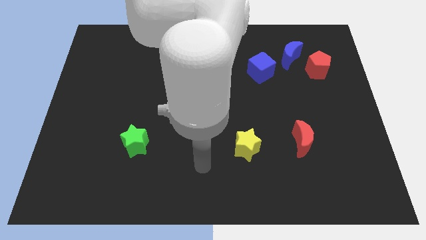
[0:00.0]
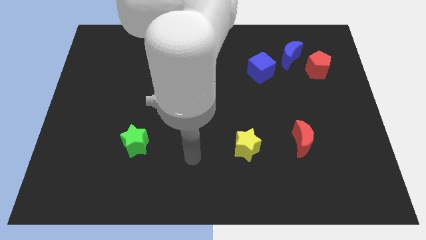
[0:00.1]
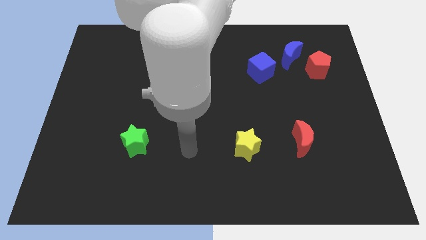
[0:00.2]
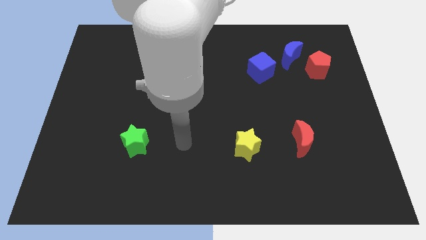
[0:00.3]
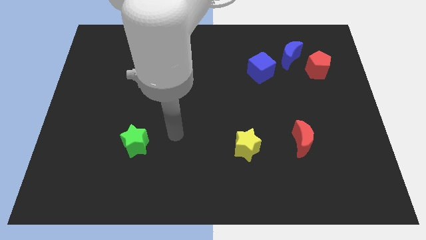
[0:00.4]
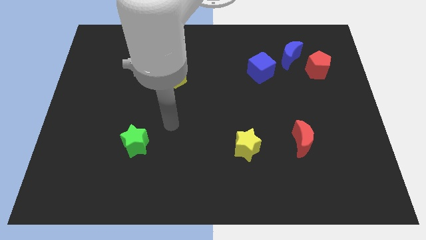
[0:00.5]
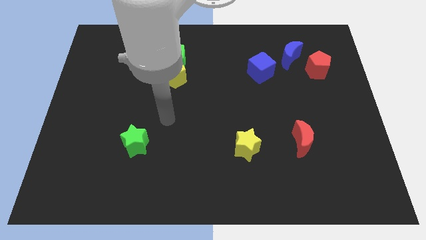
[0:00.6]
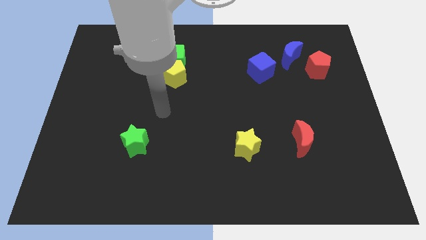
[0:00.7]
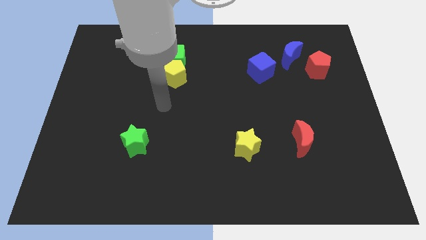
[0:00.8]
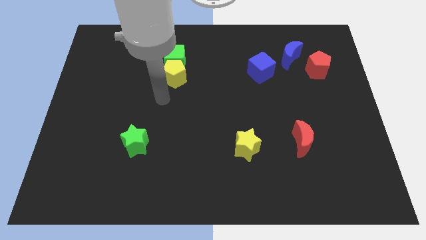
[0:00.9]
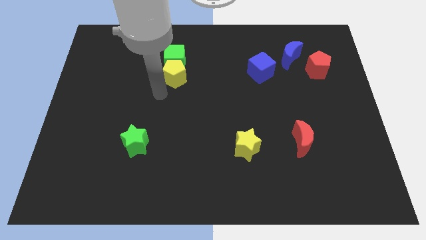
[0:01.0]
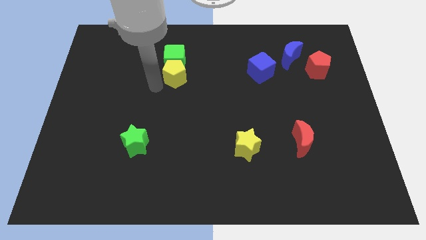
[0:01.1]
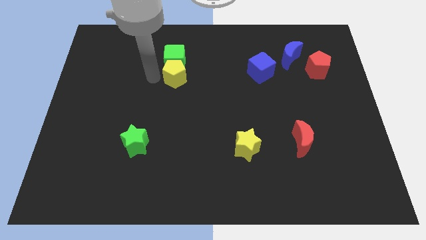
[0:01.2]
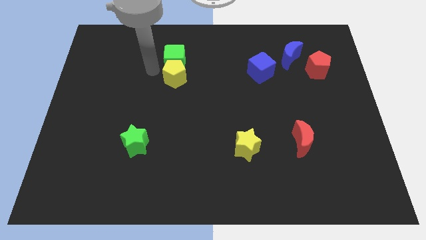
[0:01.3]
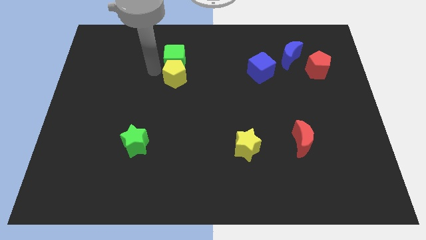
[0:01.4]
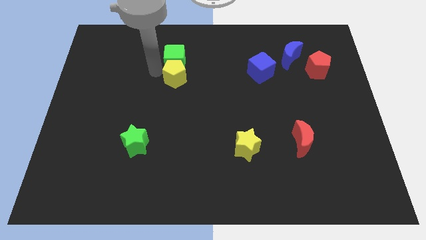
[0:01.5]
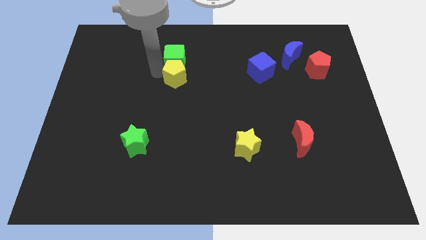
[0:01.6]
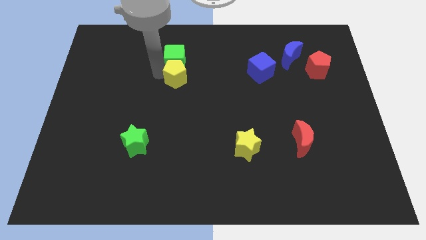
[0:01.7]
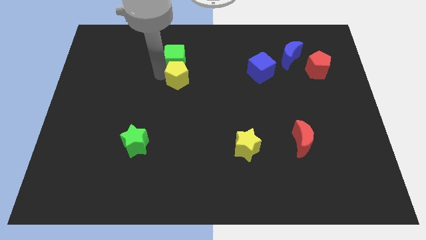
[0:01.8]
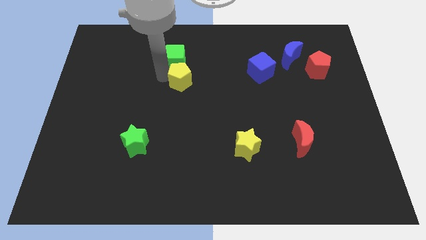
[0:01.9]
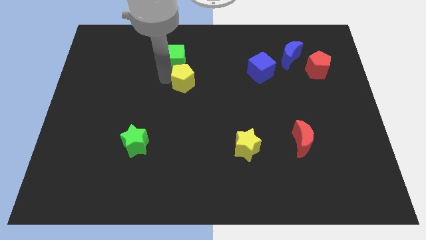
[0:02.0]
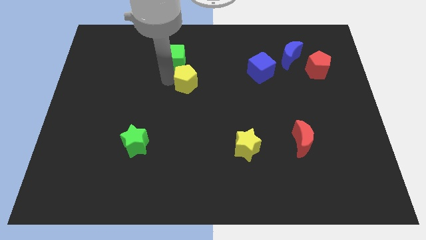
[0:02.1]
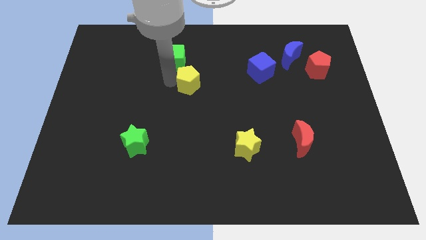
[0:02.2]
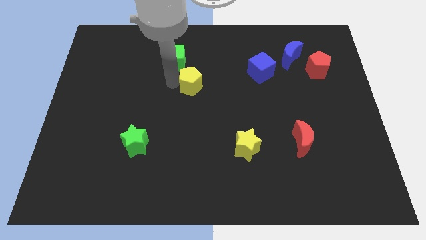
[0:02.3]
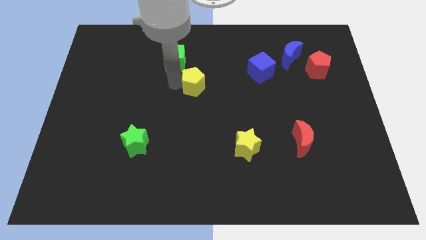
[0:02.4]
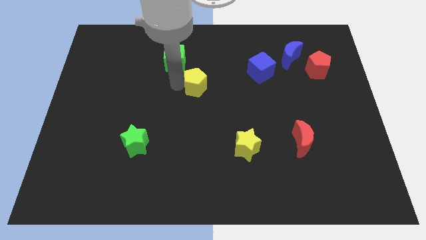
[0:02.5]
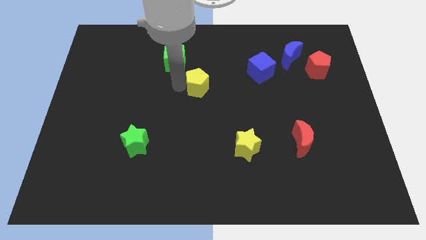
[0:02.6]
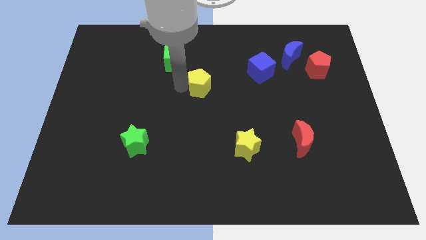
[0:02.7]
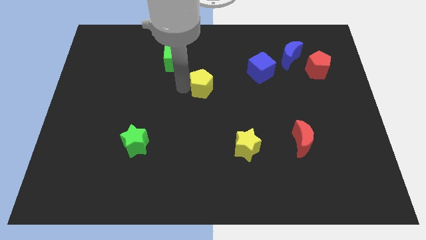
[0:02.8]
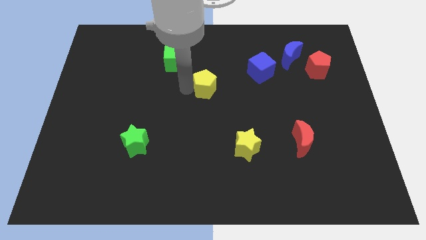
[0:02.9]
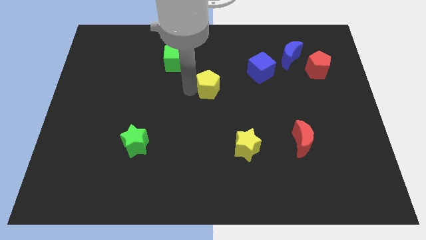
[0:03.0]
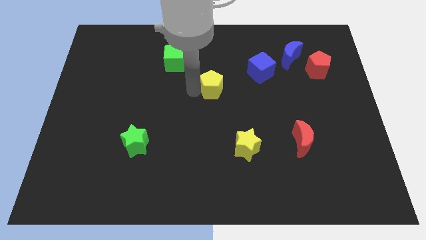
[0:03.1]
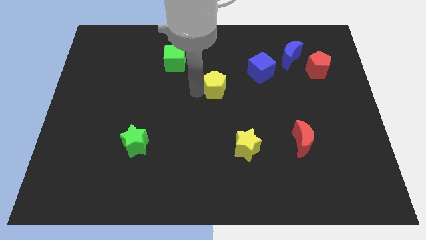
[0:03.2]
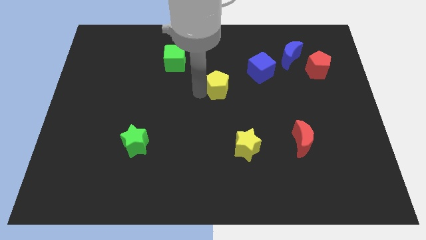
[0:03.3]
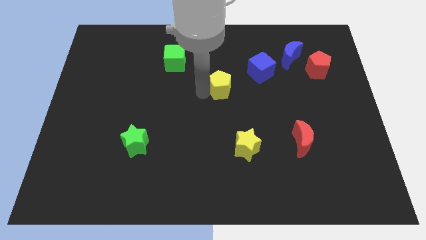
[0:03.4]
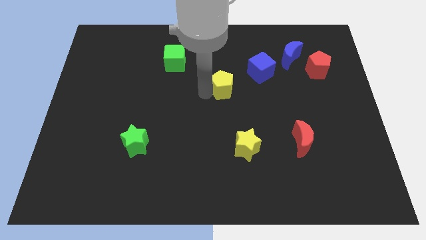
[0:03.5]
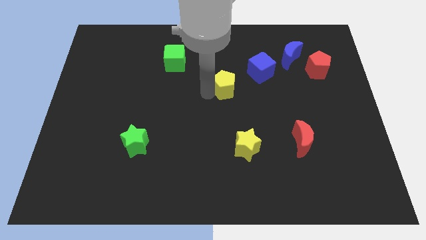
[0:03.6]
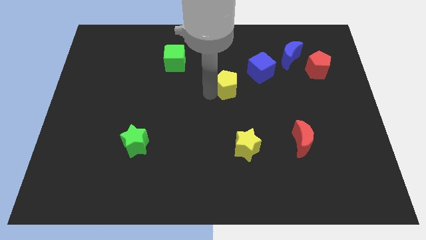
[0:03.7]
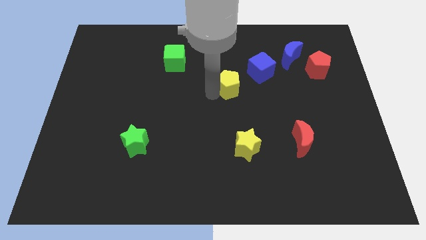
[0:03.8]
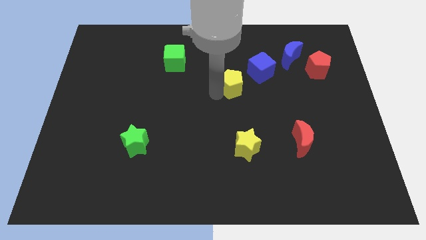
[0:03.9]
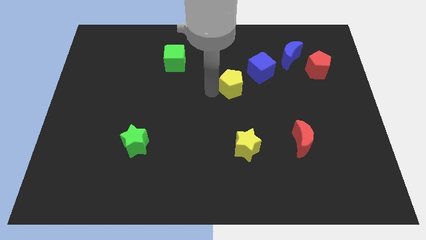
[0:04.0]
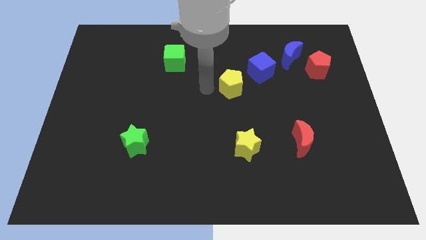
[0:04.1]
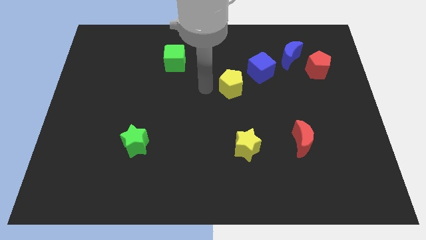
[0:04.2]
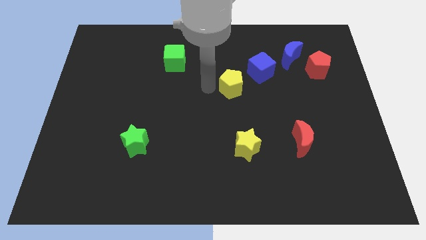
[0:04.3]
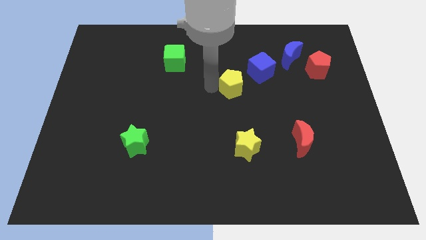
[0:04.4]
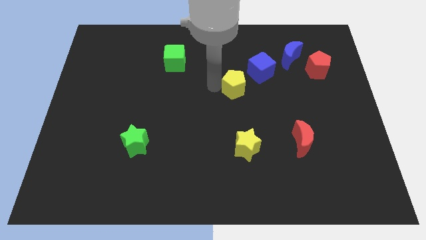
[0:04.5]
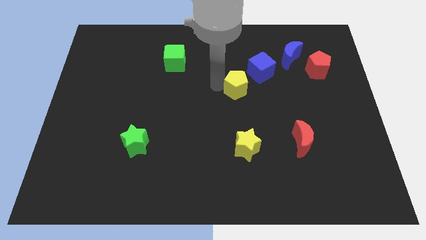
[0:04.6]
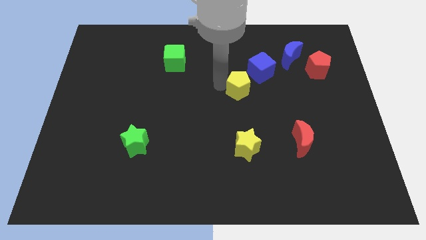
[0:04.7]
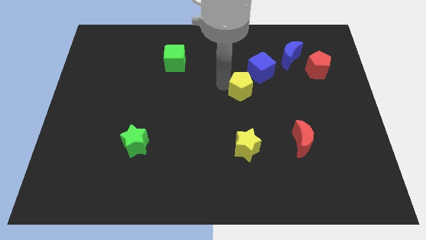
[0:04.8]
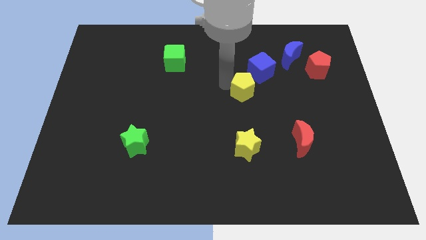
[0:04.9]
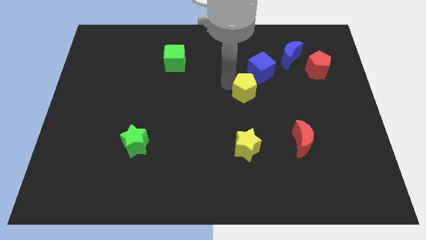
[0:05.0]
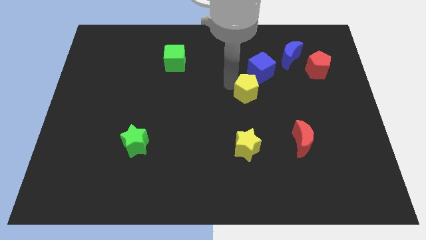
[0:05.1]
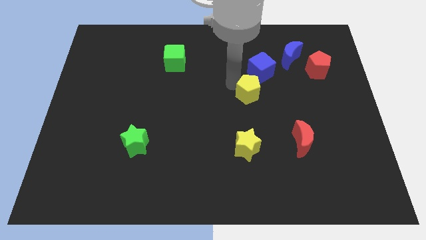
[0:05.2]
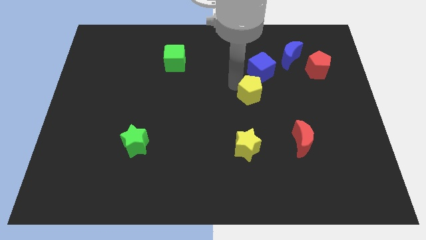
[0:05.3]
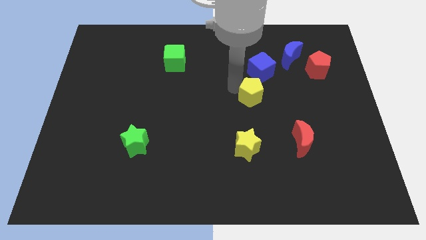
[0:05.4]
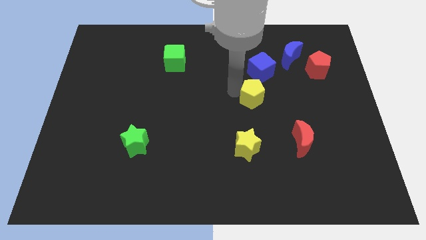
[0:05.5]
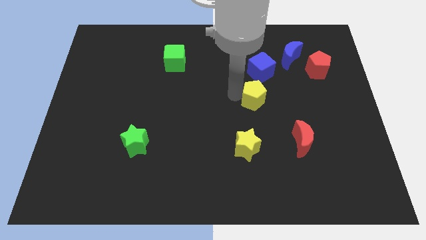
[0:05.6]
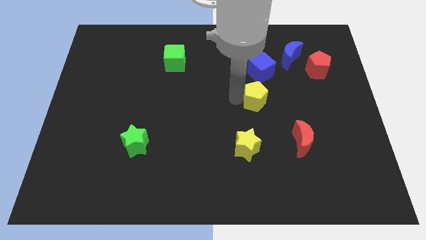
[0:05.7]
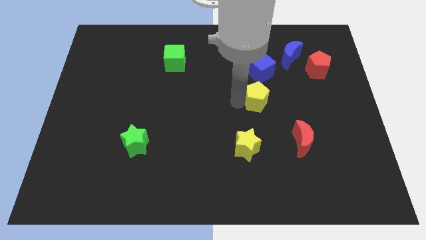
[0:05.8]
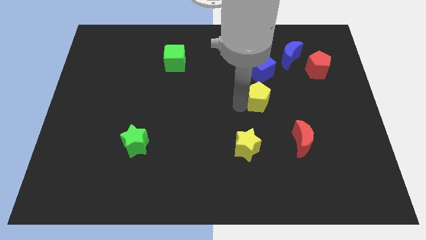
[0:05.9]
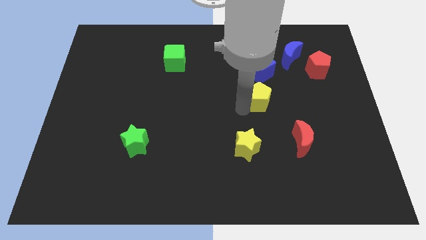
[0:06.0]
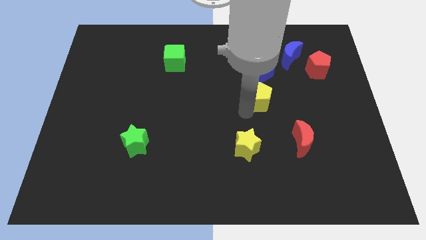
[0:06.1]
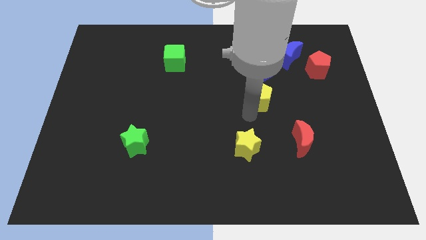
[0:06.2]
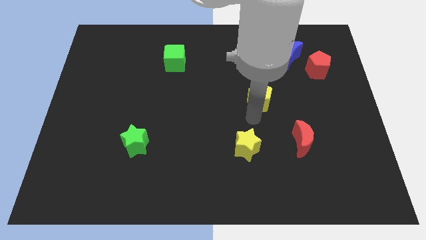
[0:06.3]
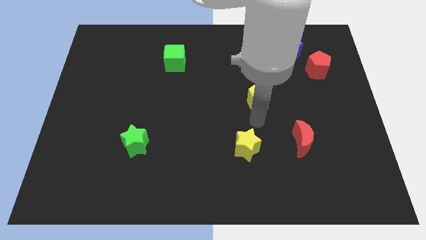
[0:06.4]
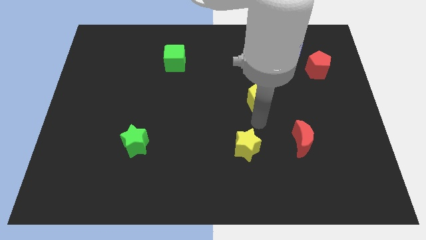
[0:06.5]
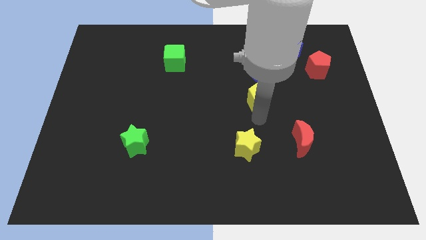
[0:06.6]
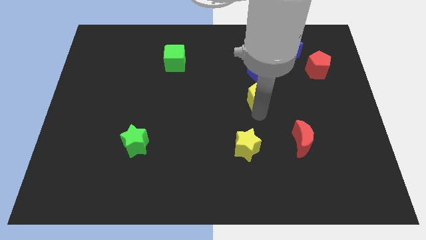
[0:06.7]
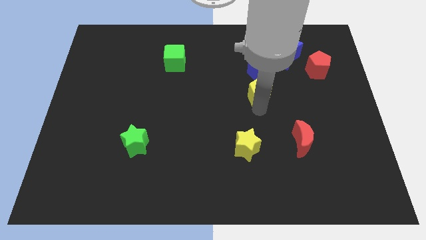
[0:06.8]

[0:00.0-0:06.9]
push the yellow pentagon right

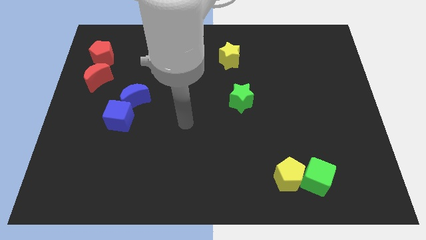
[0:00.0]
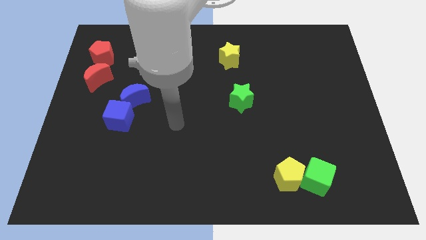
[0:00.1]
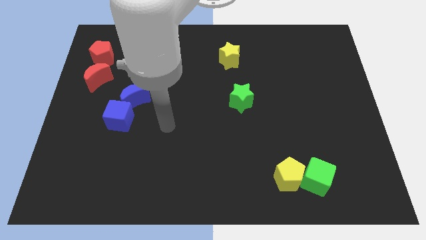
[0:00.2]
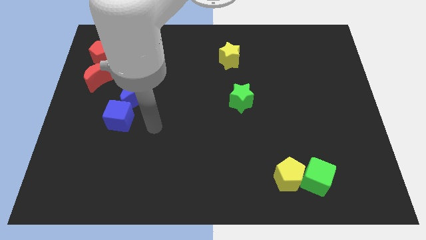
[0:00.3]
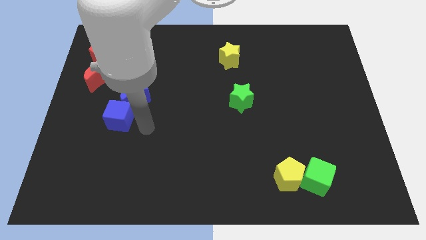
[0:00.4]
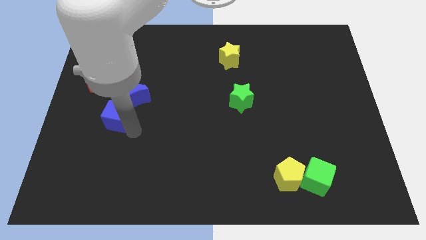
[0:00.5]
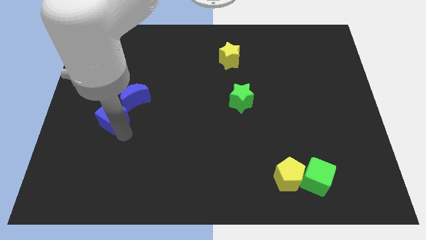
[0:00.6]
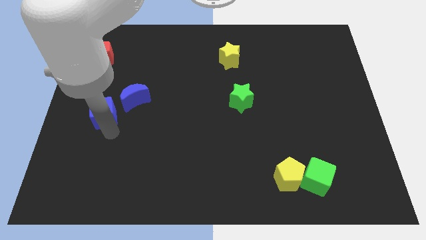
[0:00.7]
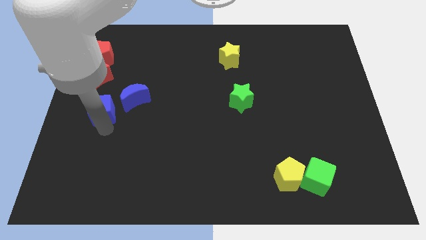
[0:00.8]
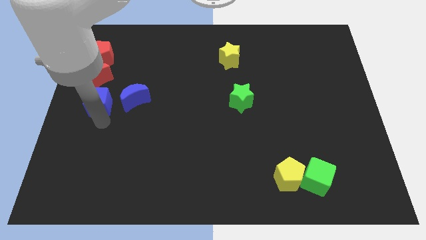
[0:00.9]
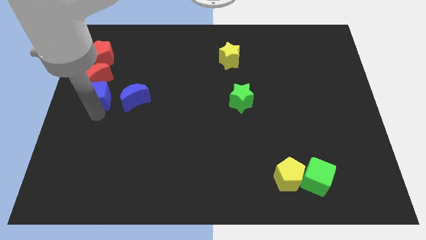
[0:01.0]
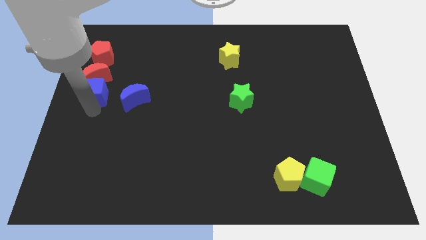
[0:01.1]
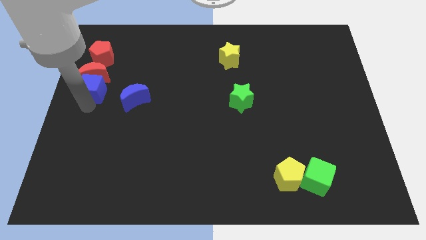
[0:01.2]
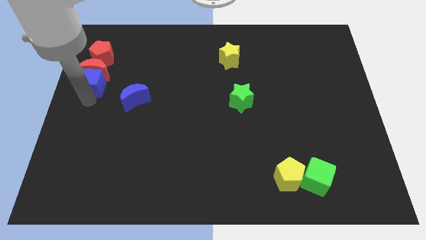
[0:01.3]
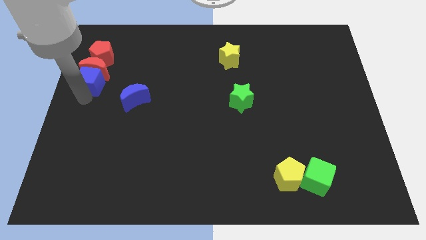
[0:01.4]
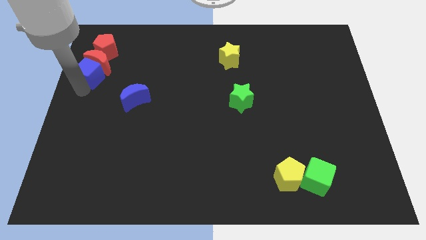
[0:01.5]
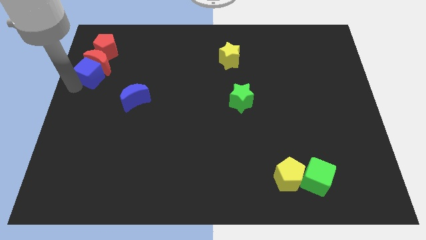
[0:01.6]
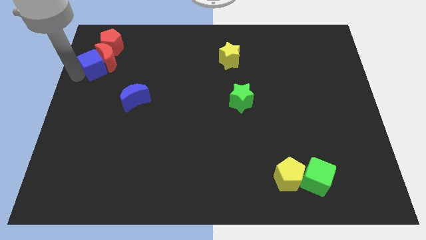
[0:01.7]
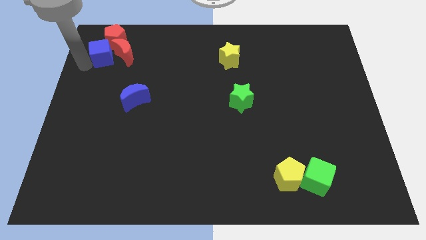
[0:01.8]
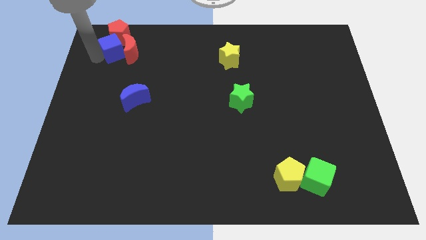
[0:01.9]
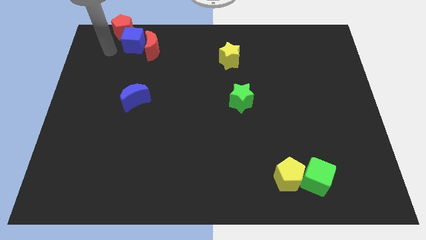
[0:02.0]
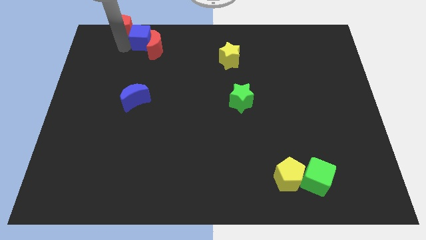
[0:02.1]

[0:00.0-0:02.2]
slide the red moon right somewhat
